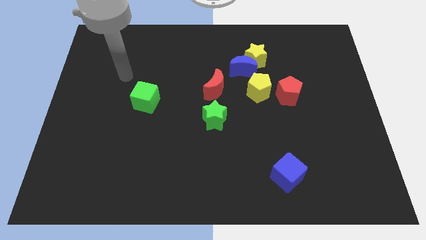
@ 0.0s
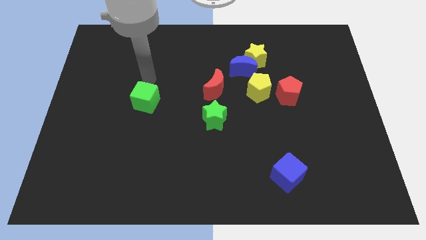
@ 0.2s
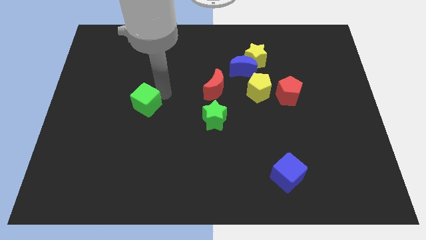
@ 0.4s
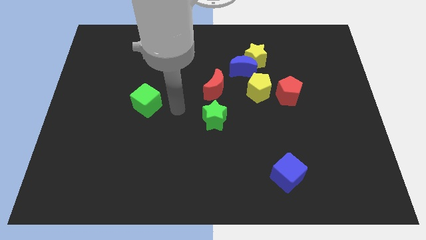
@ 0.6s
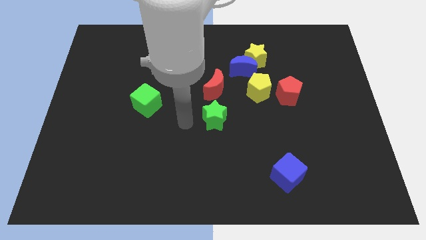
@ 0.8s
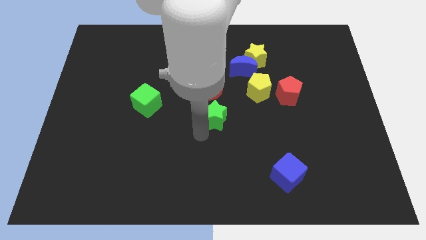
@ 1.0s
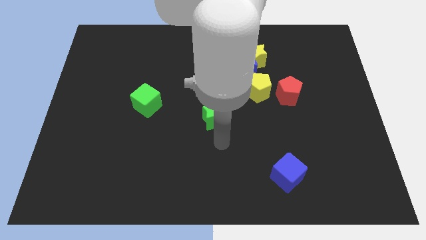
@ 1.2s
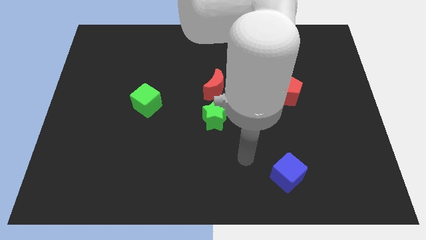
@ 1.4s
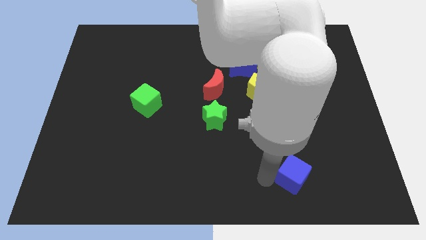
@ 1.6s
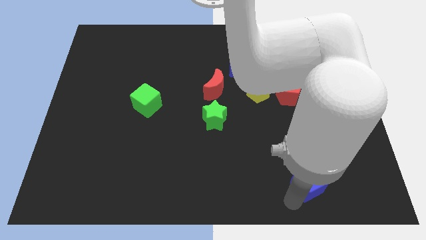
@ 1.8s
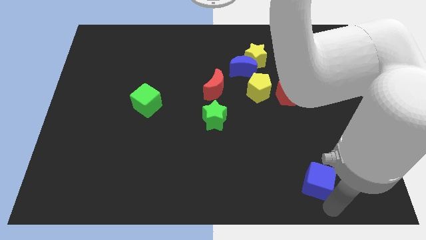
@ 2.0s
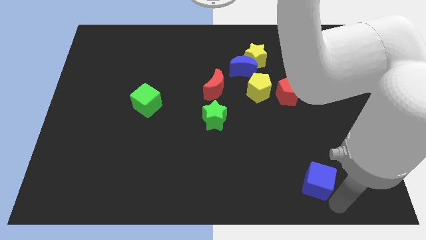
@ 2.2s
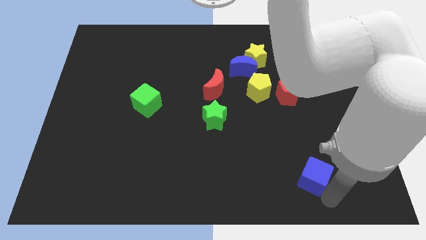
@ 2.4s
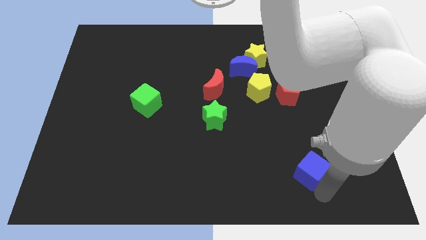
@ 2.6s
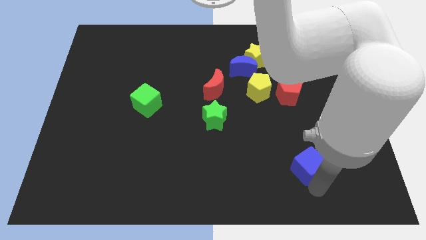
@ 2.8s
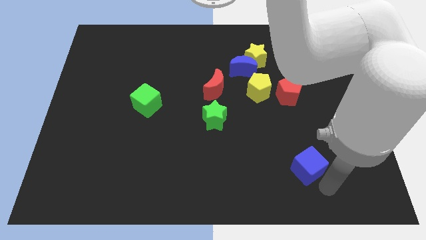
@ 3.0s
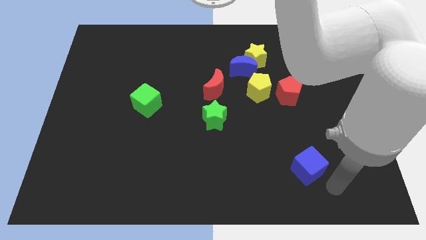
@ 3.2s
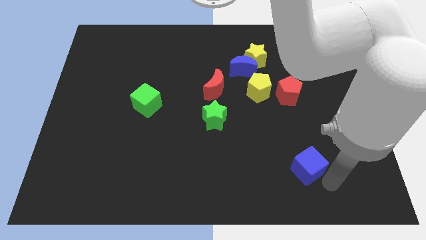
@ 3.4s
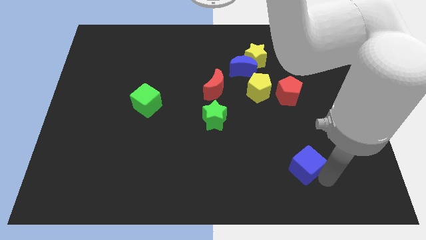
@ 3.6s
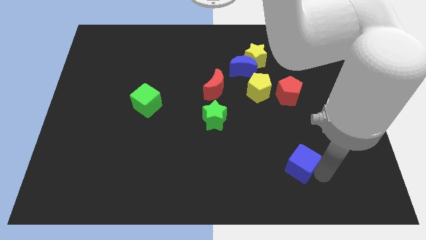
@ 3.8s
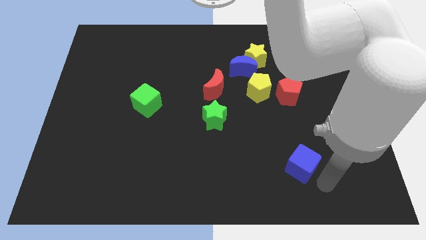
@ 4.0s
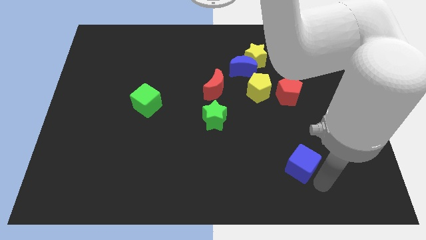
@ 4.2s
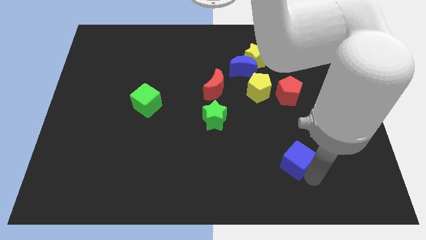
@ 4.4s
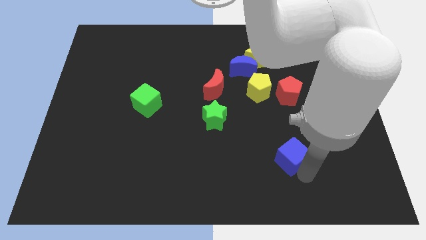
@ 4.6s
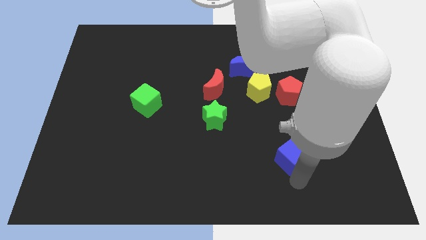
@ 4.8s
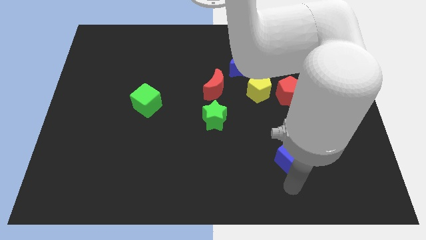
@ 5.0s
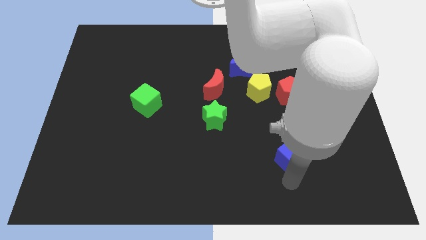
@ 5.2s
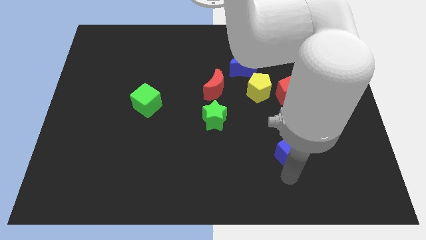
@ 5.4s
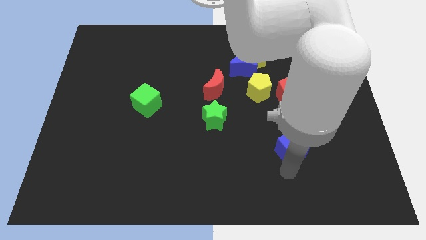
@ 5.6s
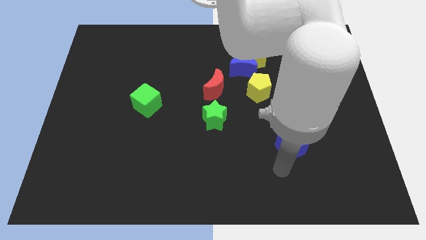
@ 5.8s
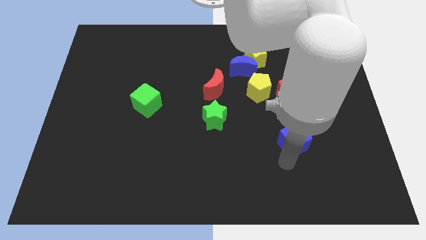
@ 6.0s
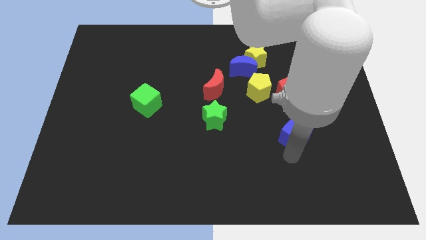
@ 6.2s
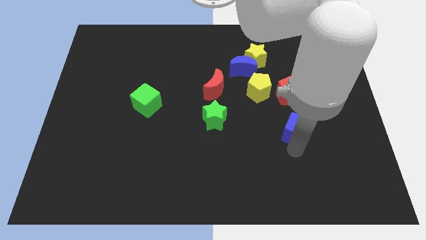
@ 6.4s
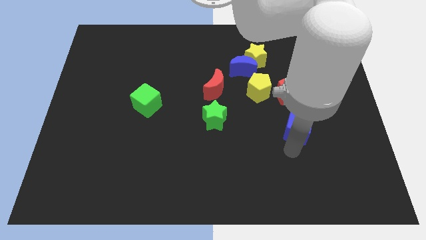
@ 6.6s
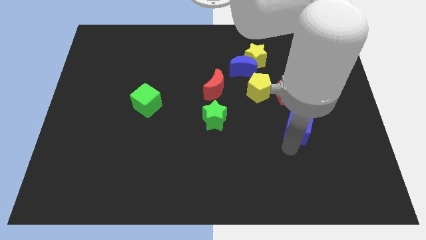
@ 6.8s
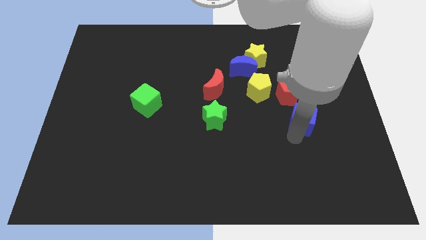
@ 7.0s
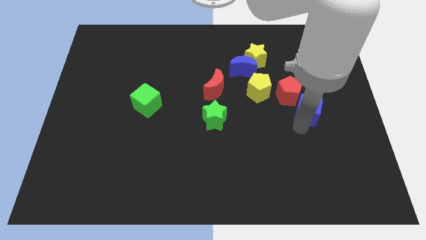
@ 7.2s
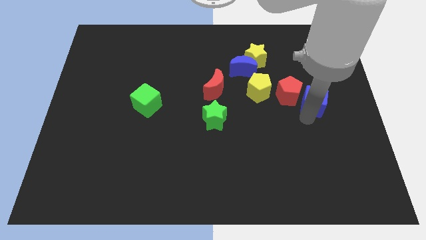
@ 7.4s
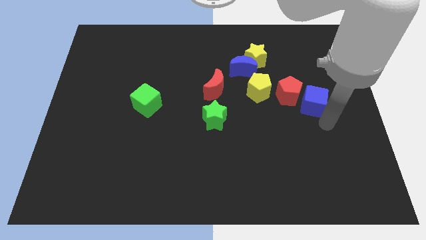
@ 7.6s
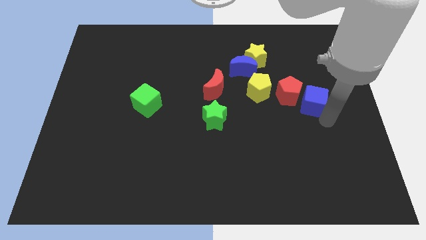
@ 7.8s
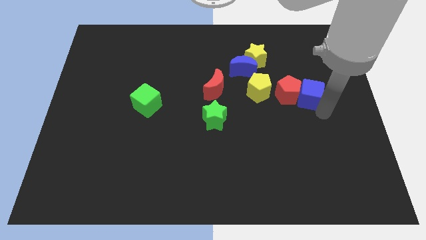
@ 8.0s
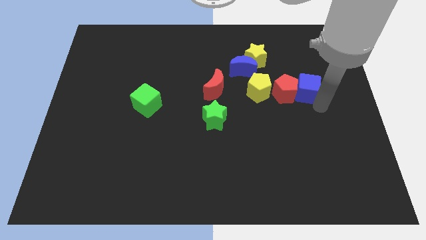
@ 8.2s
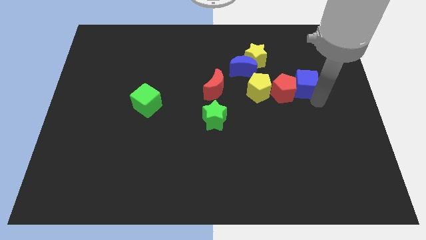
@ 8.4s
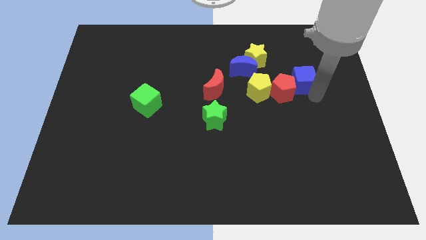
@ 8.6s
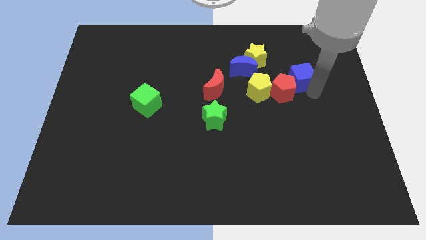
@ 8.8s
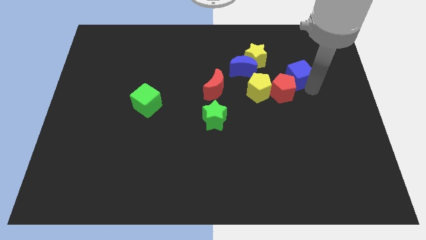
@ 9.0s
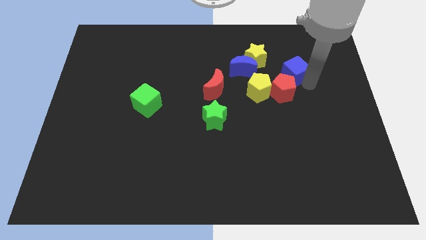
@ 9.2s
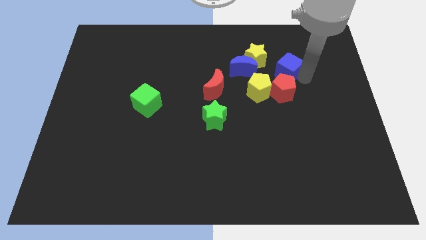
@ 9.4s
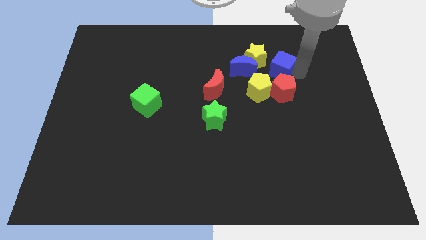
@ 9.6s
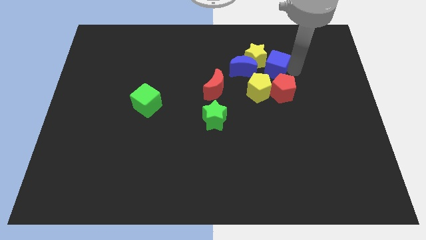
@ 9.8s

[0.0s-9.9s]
put the blue cube to the yellow star

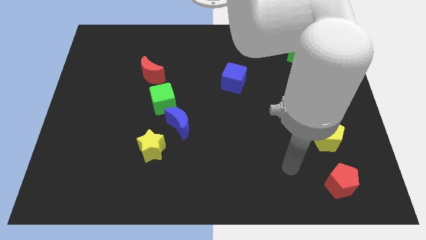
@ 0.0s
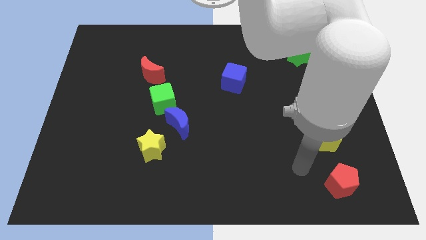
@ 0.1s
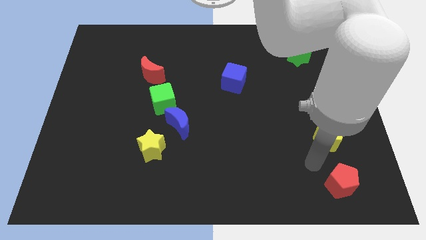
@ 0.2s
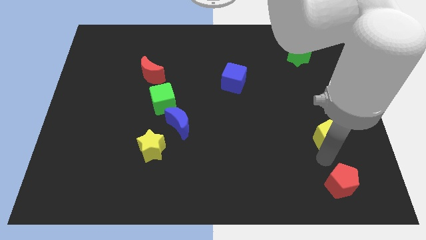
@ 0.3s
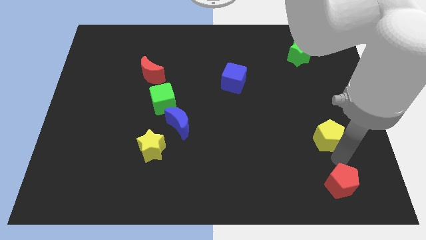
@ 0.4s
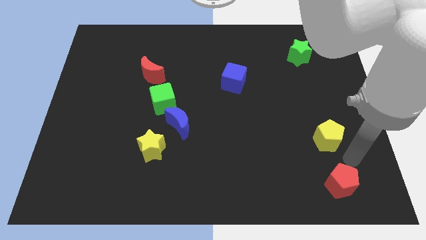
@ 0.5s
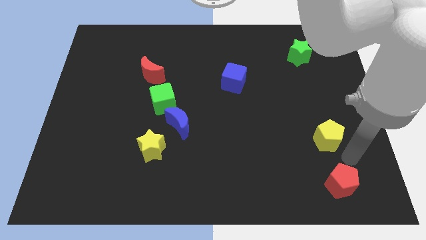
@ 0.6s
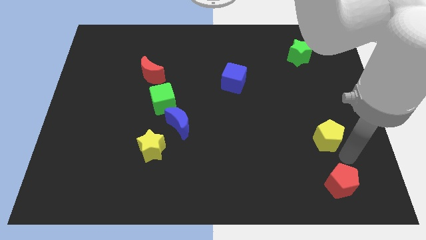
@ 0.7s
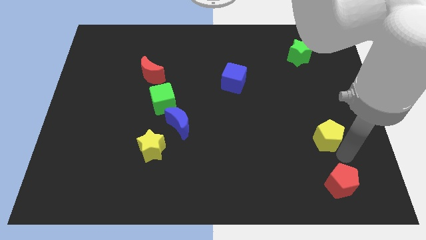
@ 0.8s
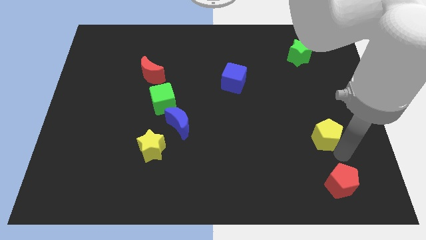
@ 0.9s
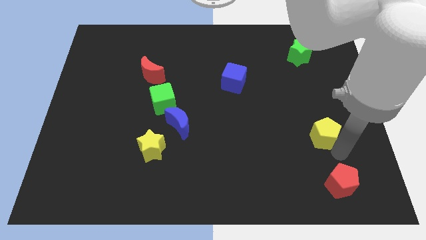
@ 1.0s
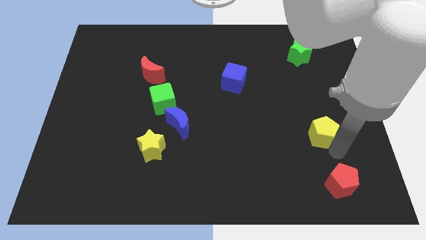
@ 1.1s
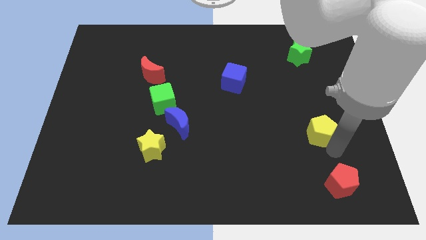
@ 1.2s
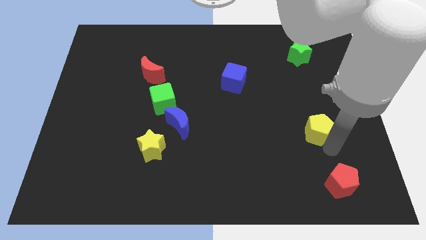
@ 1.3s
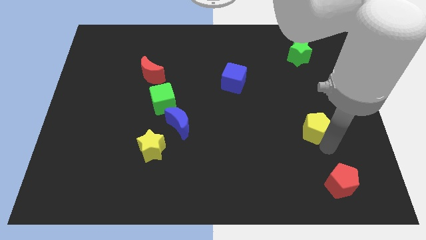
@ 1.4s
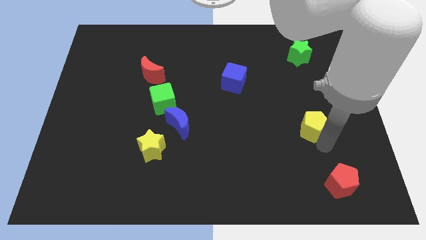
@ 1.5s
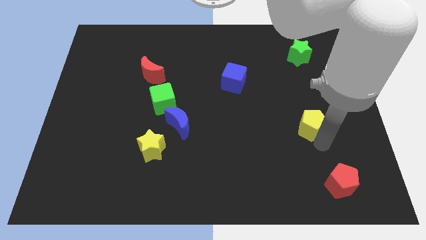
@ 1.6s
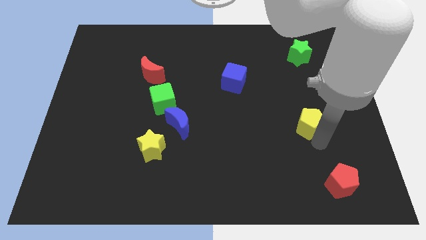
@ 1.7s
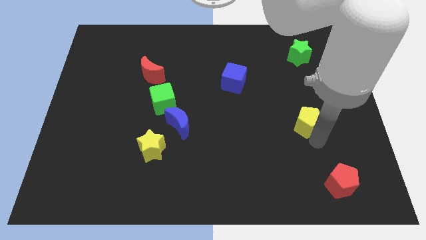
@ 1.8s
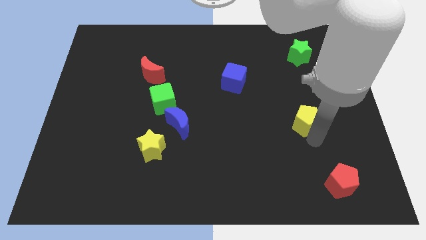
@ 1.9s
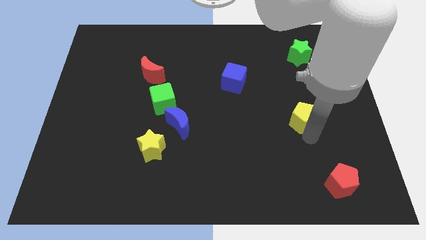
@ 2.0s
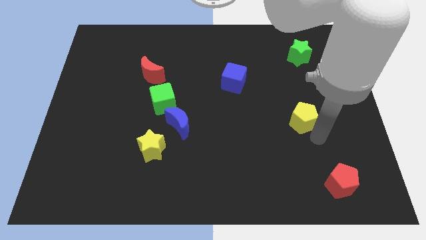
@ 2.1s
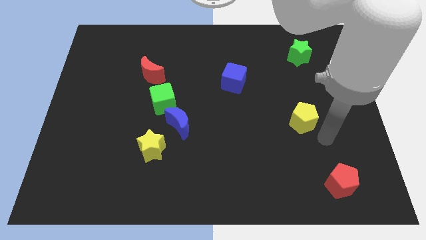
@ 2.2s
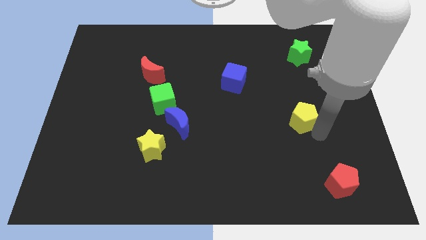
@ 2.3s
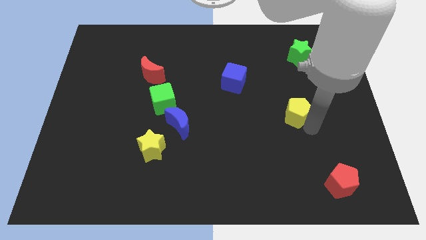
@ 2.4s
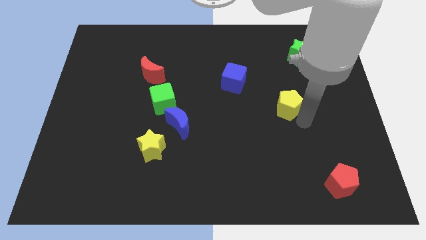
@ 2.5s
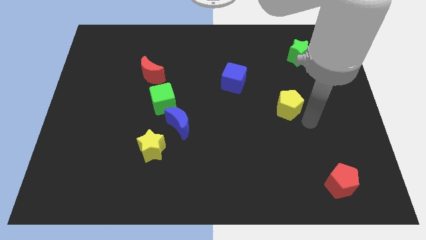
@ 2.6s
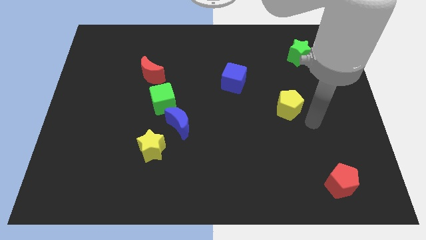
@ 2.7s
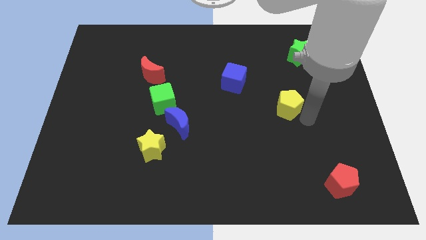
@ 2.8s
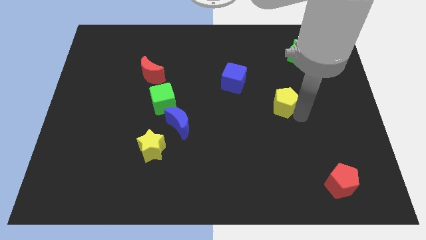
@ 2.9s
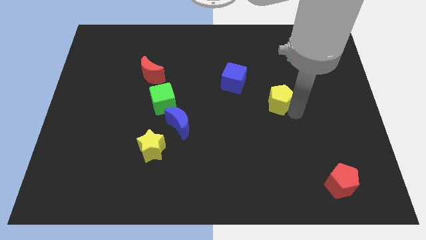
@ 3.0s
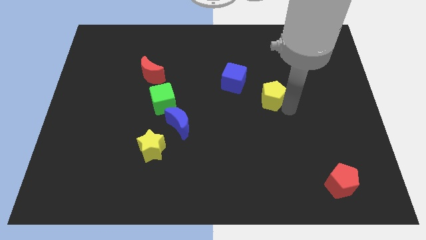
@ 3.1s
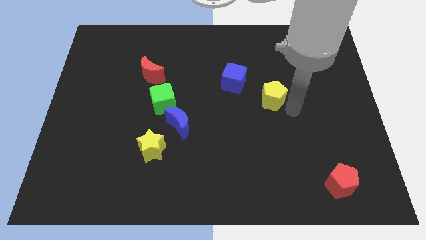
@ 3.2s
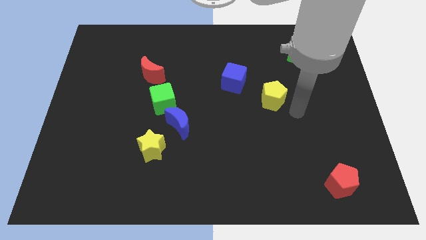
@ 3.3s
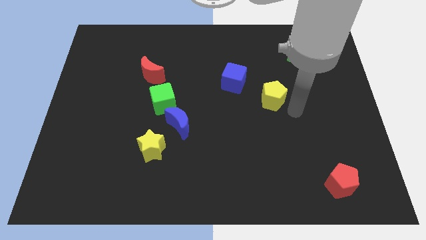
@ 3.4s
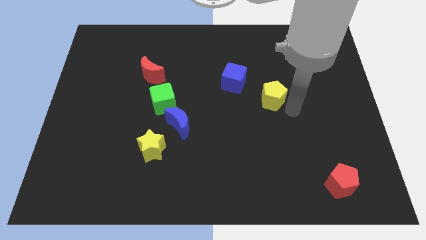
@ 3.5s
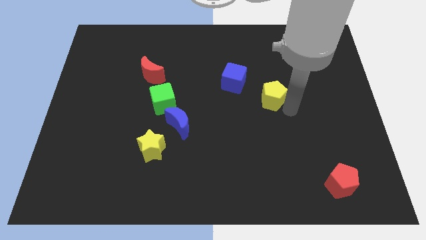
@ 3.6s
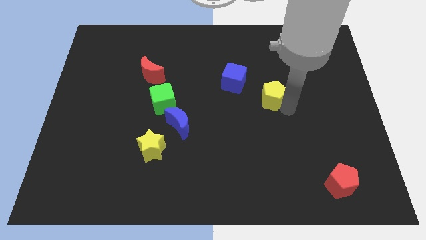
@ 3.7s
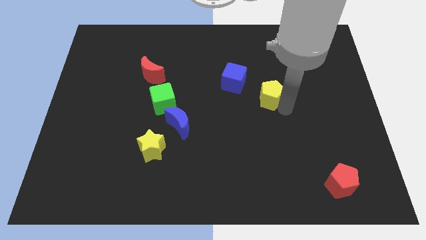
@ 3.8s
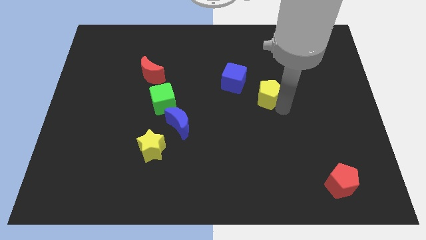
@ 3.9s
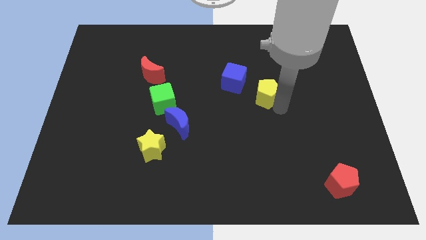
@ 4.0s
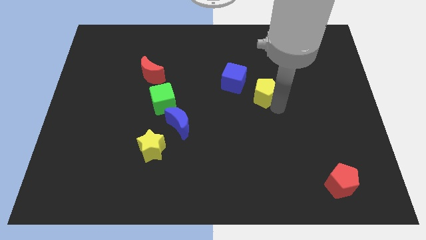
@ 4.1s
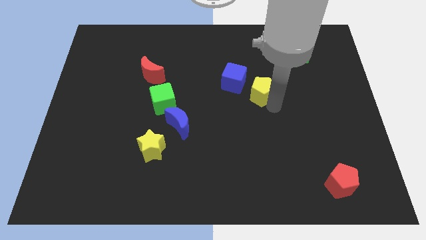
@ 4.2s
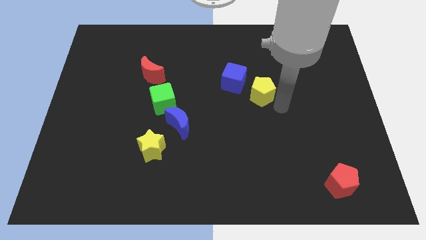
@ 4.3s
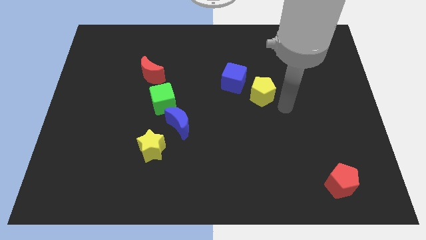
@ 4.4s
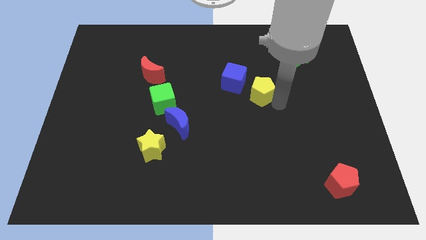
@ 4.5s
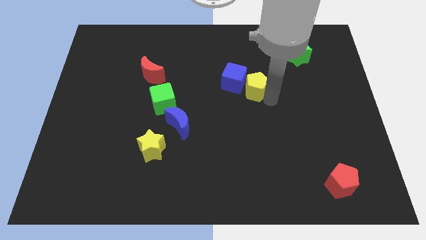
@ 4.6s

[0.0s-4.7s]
put the yellow pentagon close to the blue cube
